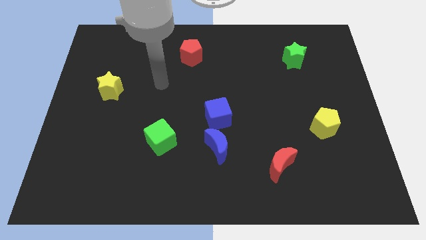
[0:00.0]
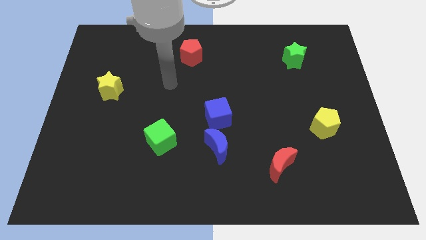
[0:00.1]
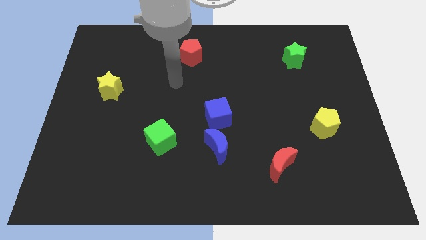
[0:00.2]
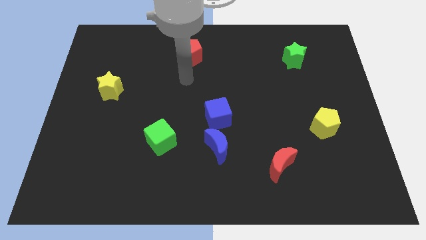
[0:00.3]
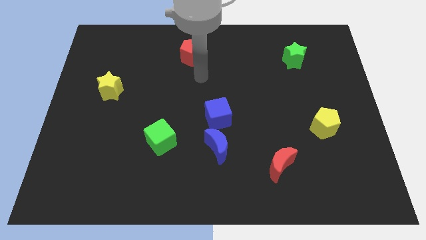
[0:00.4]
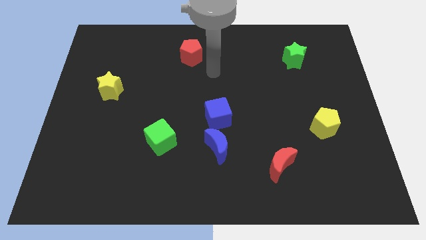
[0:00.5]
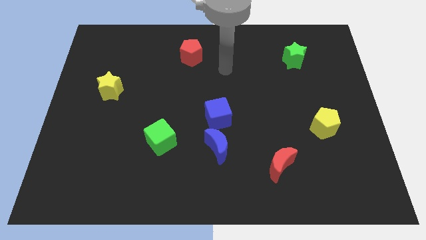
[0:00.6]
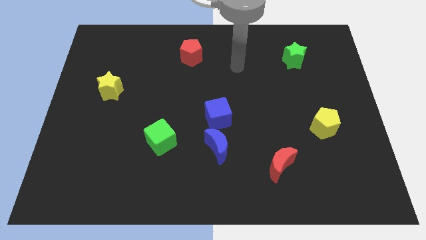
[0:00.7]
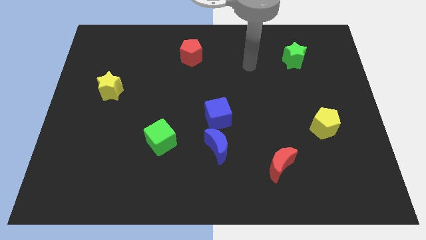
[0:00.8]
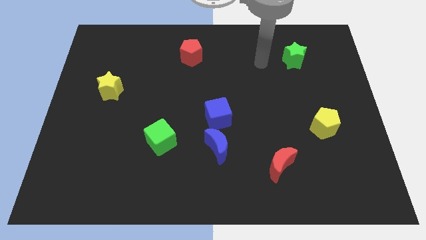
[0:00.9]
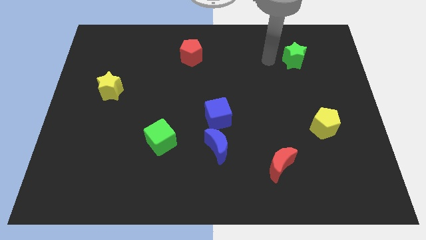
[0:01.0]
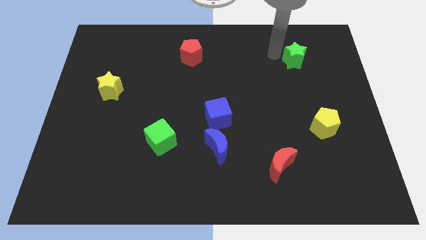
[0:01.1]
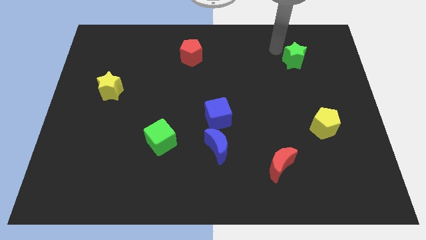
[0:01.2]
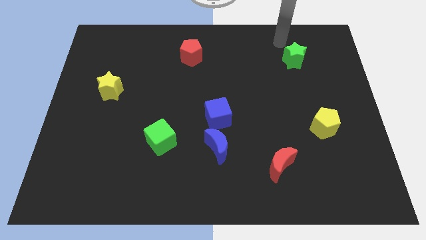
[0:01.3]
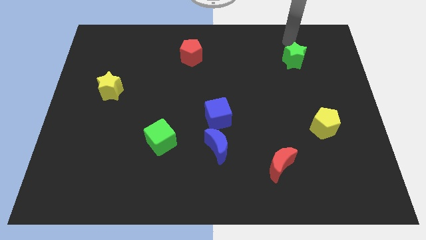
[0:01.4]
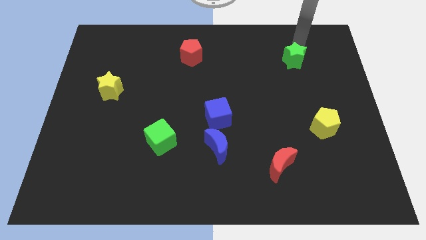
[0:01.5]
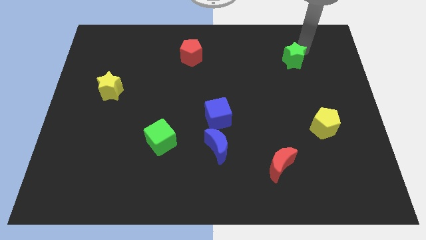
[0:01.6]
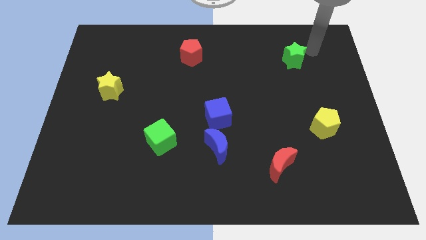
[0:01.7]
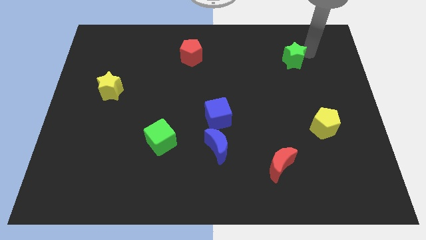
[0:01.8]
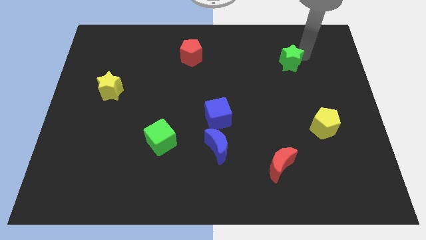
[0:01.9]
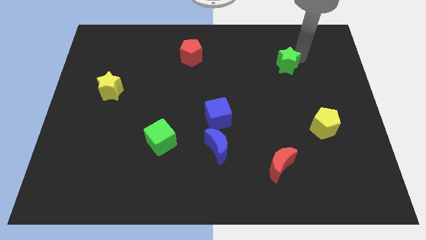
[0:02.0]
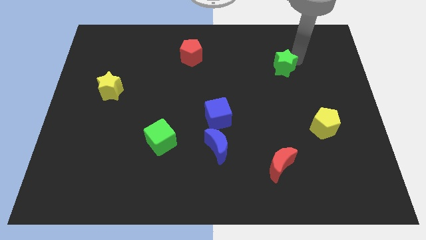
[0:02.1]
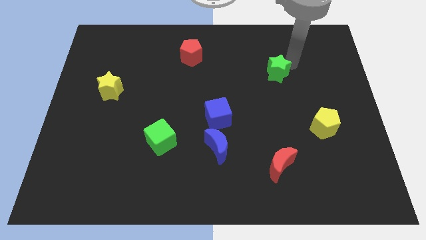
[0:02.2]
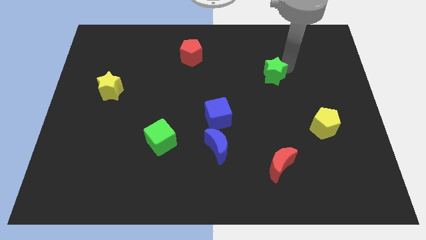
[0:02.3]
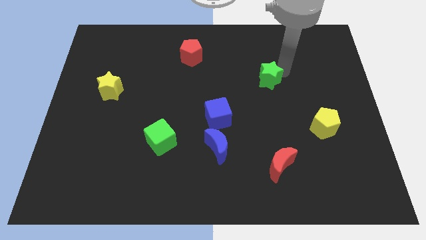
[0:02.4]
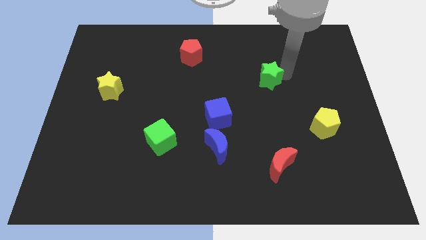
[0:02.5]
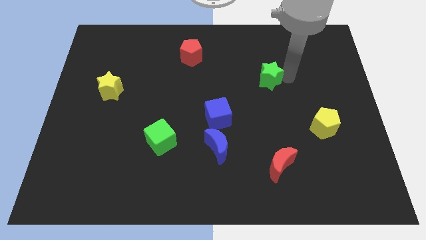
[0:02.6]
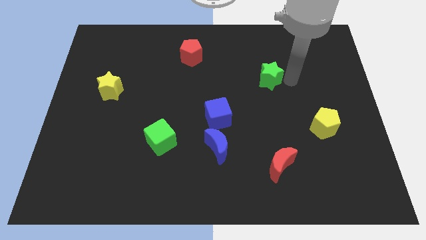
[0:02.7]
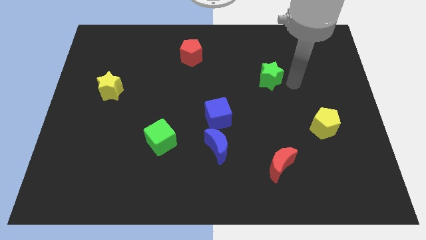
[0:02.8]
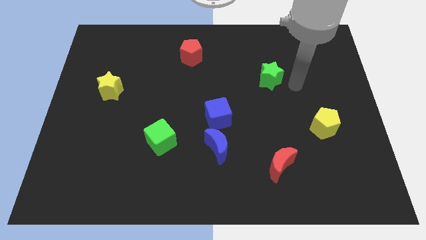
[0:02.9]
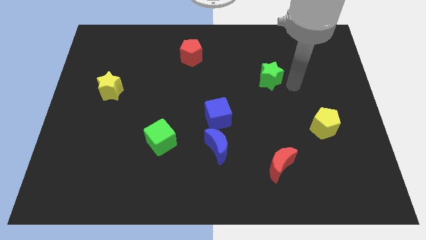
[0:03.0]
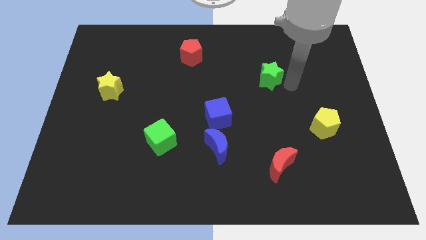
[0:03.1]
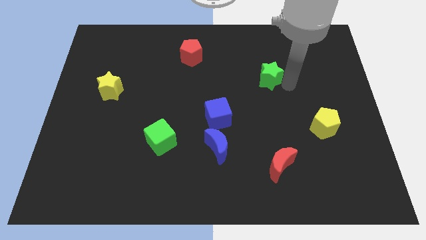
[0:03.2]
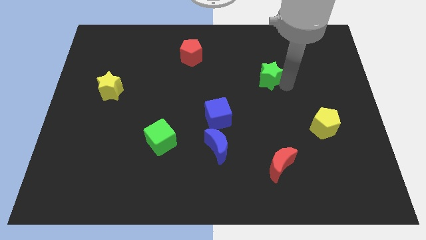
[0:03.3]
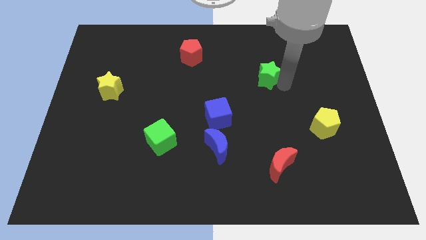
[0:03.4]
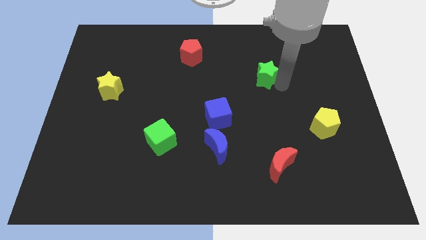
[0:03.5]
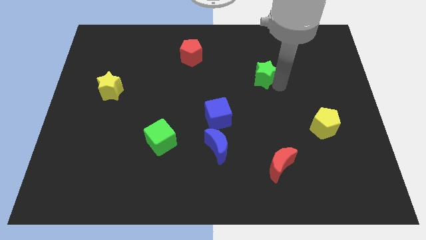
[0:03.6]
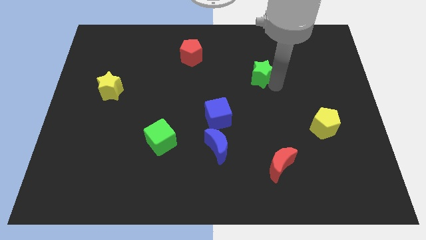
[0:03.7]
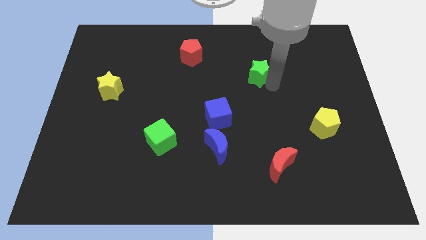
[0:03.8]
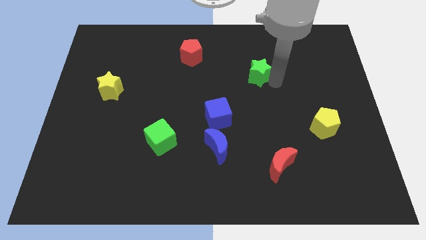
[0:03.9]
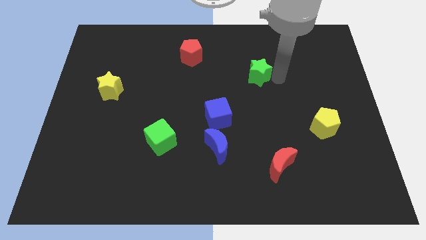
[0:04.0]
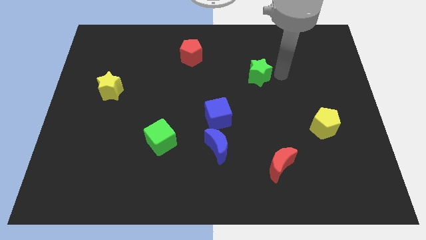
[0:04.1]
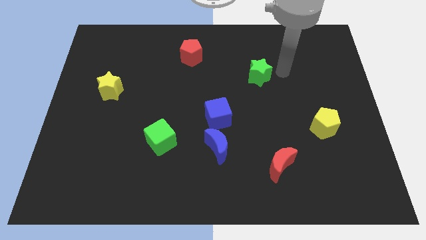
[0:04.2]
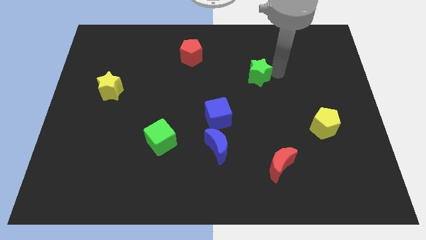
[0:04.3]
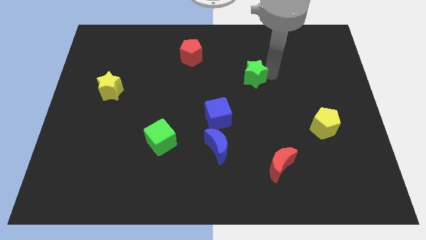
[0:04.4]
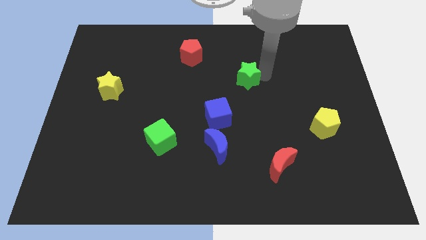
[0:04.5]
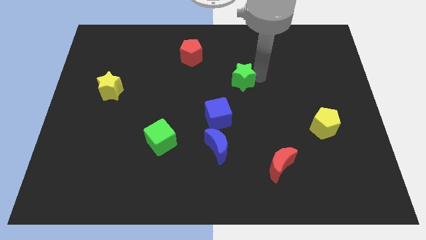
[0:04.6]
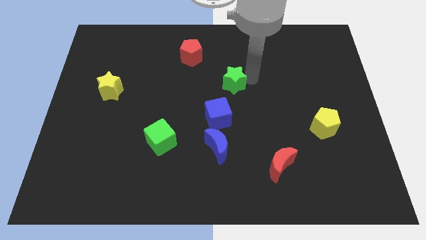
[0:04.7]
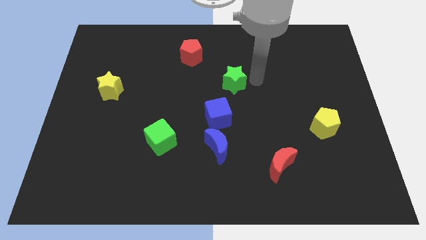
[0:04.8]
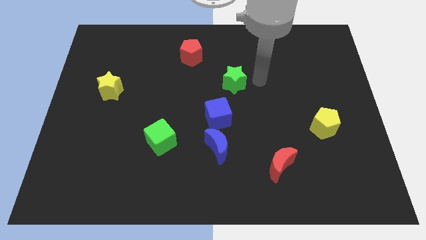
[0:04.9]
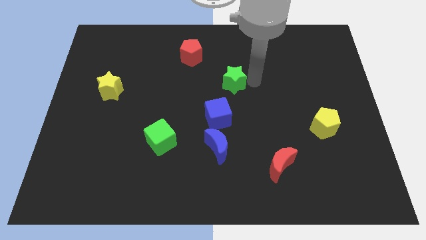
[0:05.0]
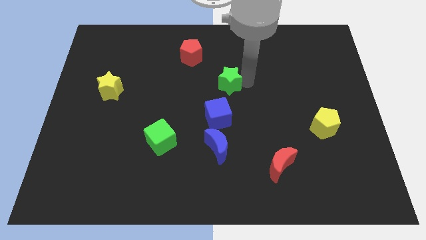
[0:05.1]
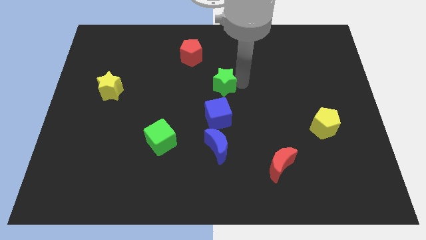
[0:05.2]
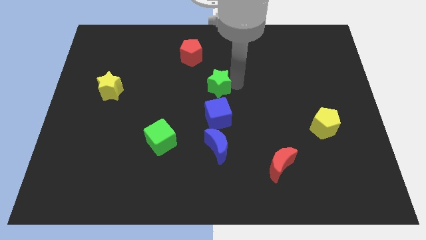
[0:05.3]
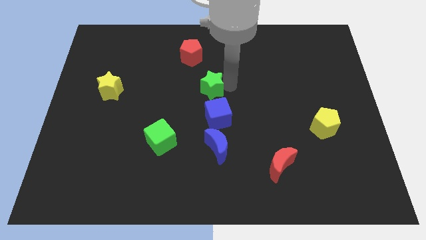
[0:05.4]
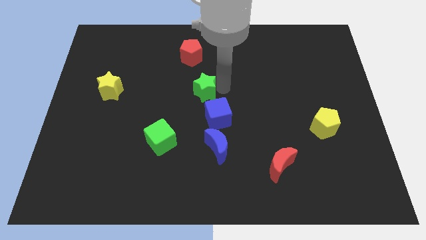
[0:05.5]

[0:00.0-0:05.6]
move the green star below the red pentagon

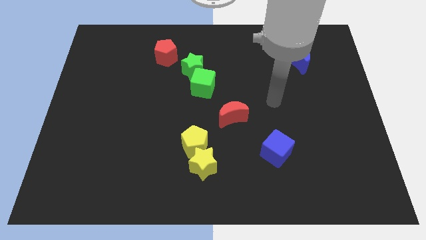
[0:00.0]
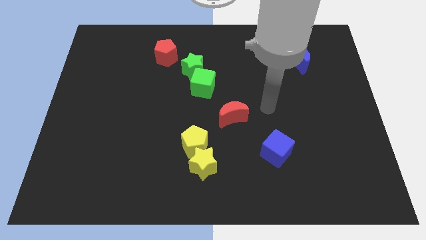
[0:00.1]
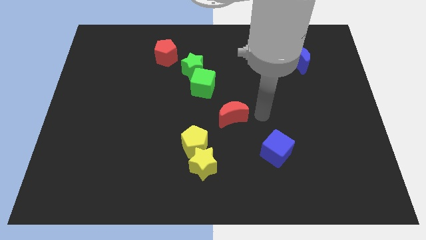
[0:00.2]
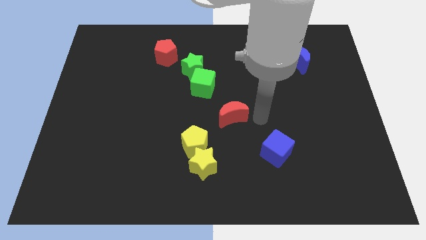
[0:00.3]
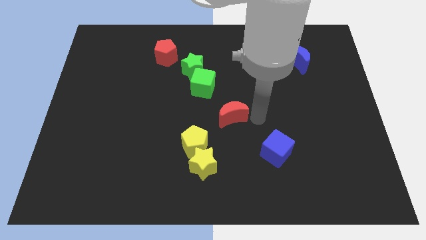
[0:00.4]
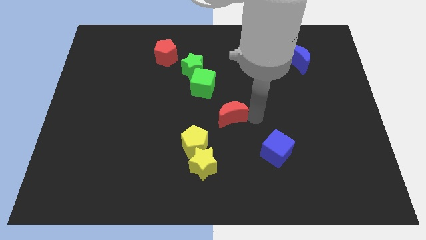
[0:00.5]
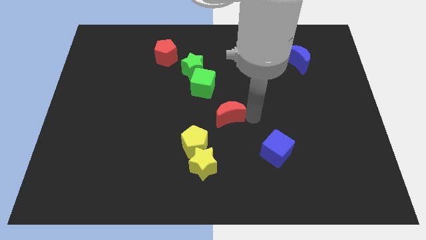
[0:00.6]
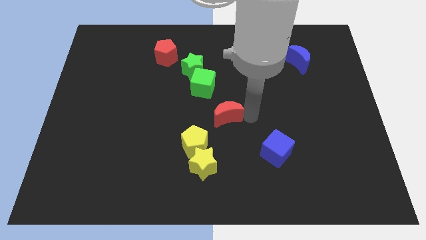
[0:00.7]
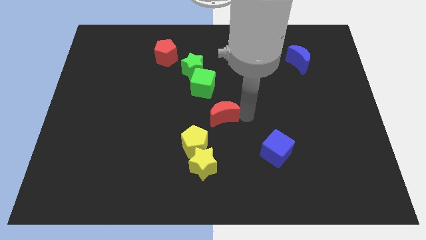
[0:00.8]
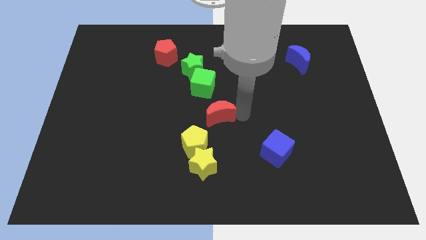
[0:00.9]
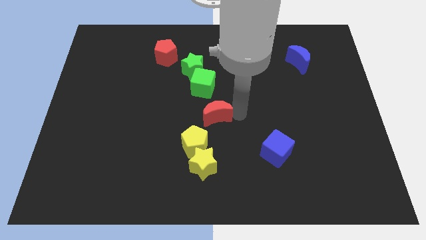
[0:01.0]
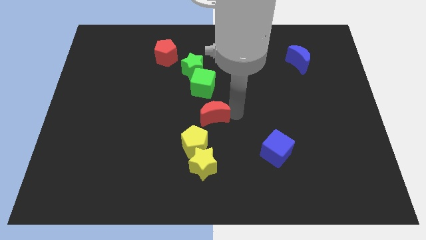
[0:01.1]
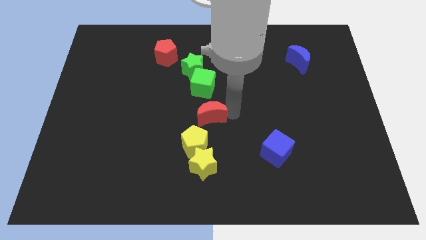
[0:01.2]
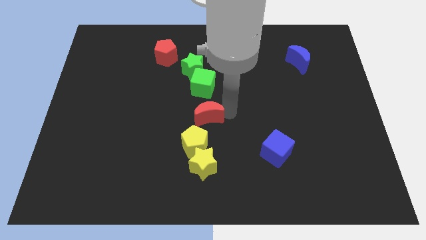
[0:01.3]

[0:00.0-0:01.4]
move the red moon to the bottom side of the green star
